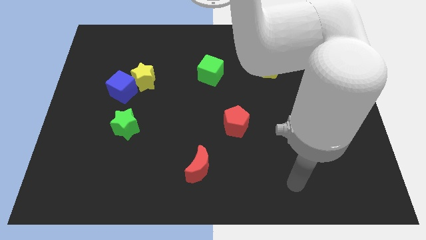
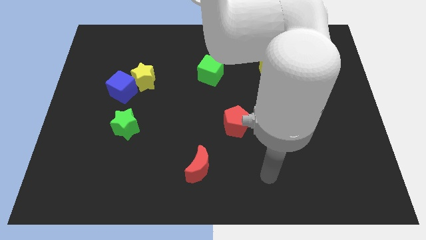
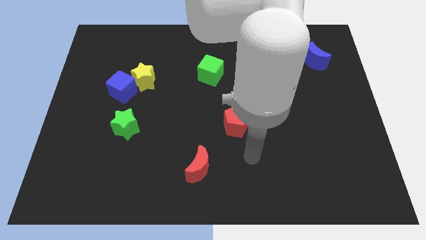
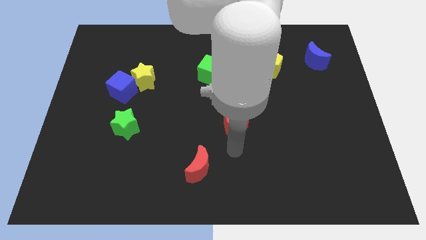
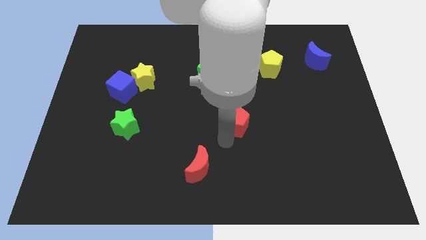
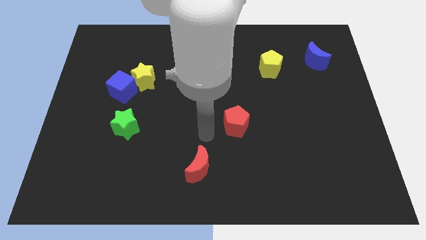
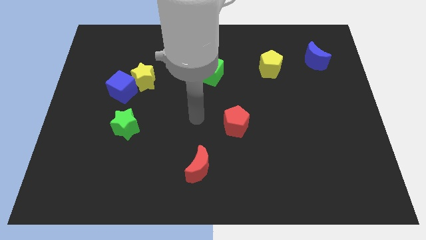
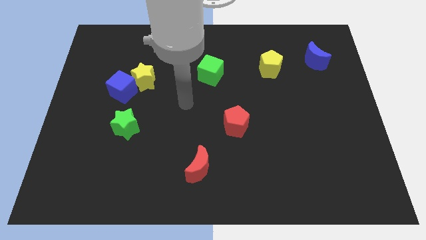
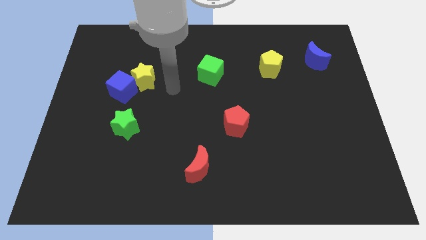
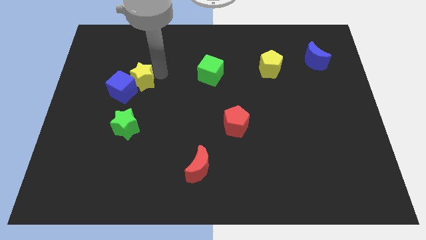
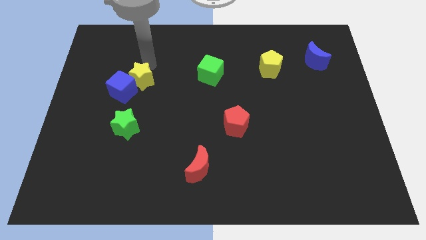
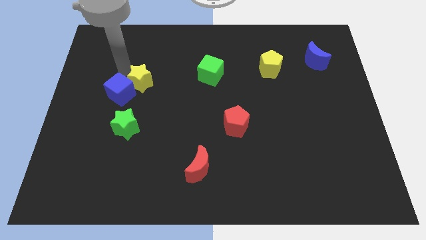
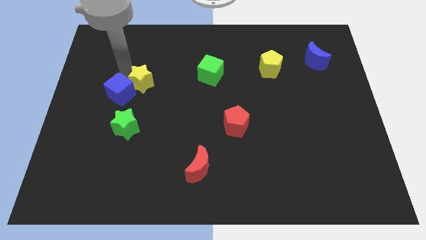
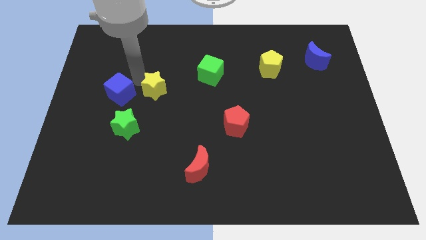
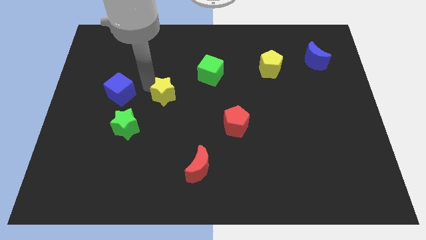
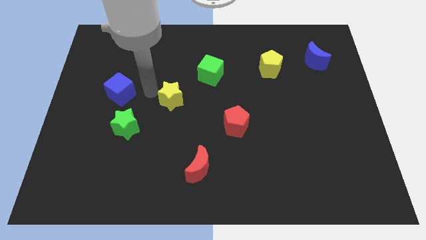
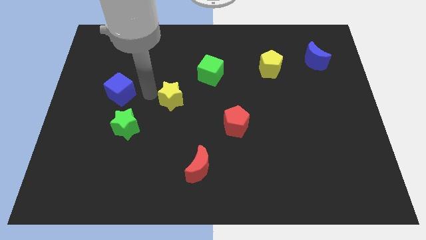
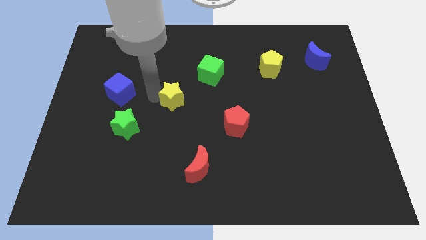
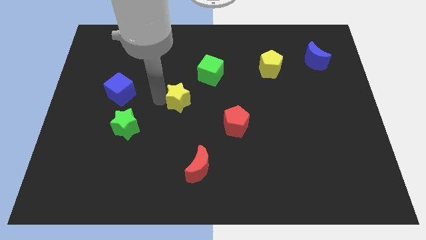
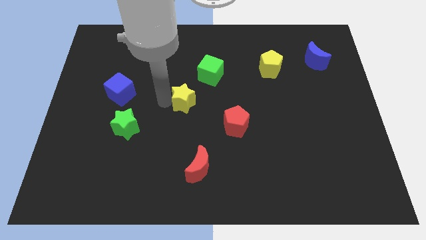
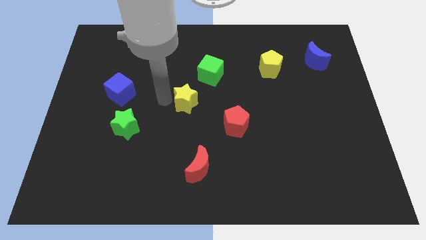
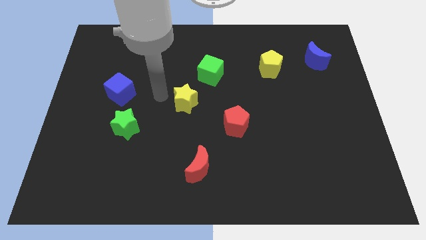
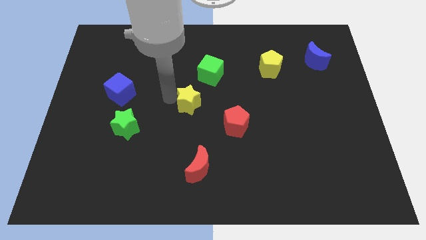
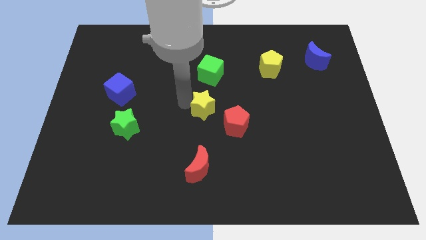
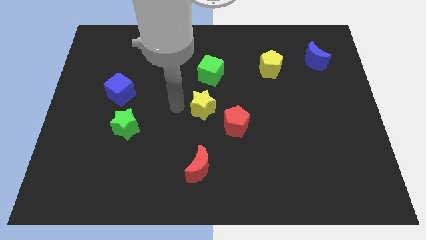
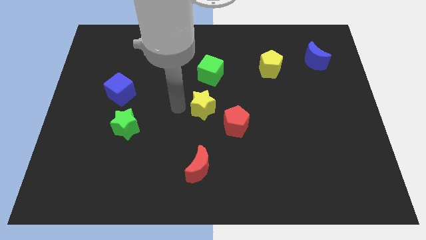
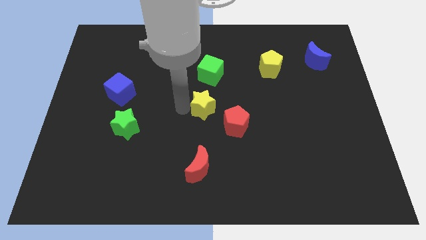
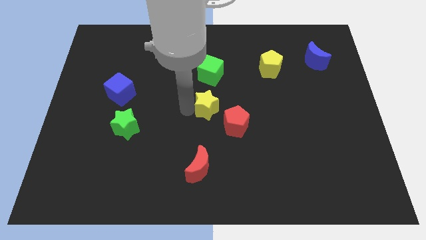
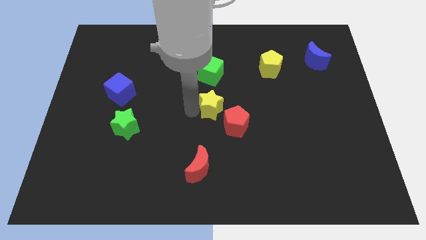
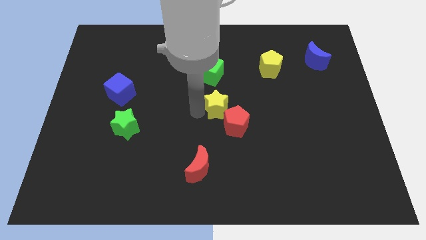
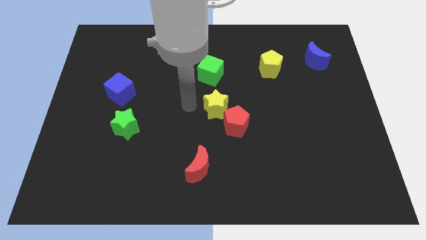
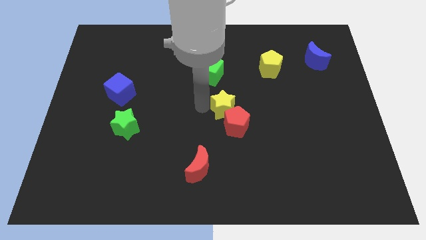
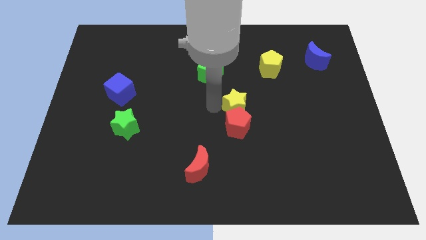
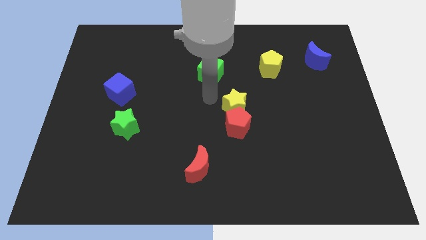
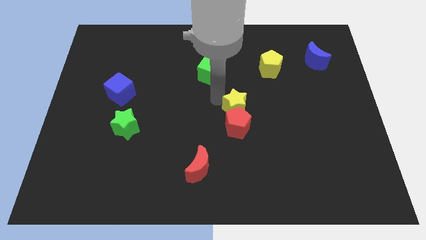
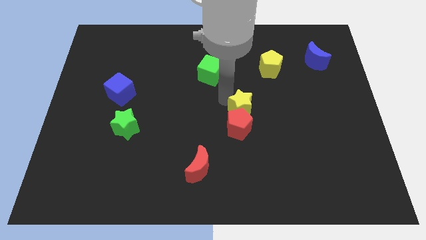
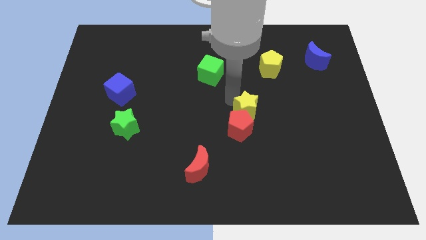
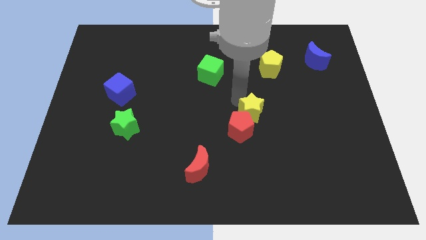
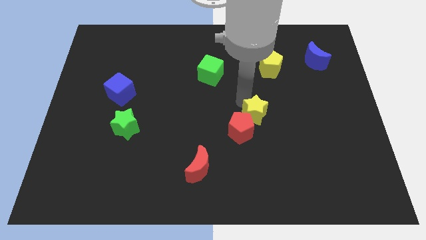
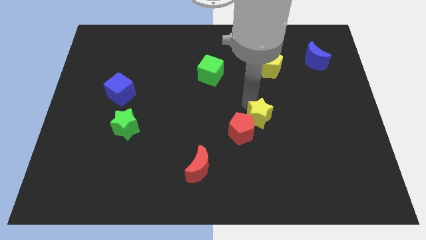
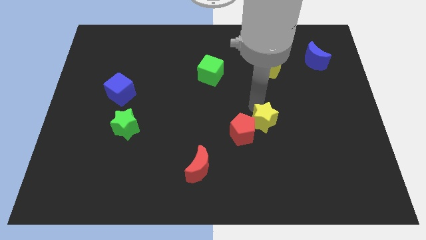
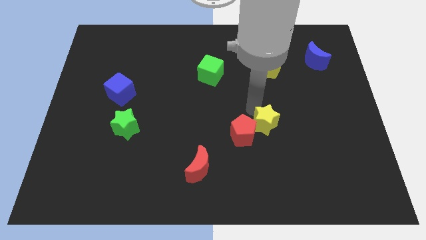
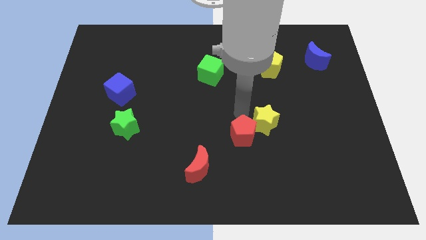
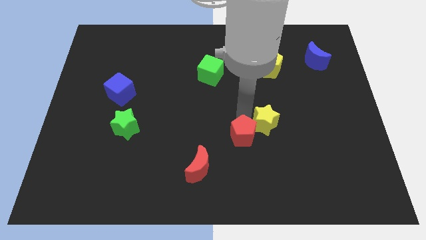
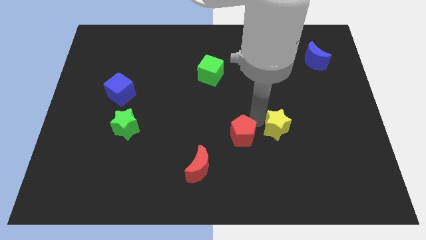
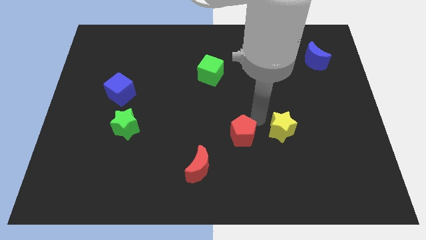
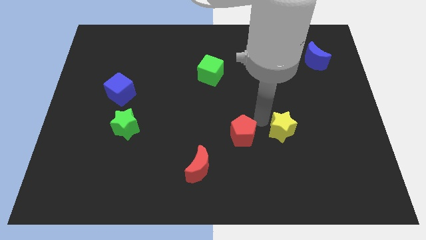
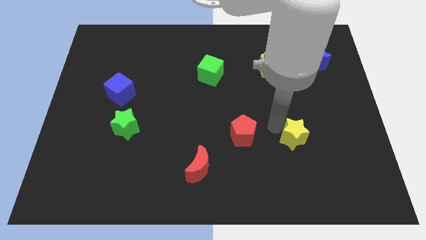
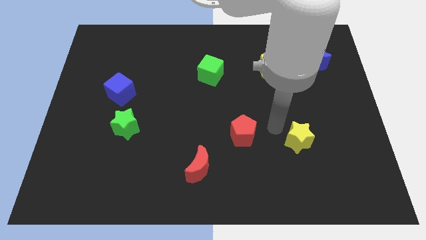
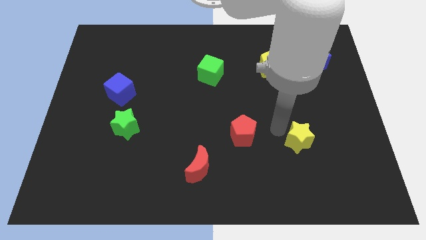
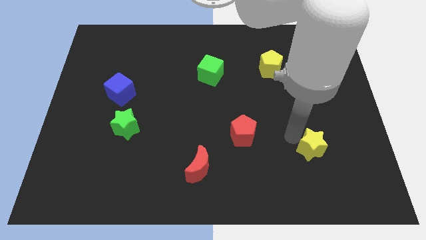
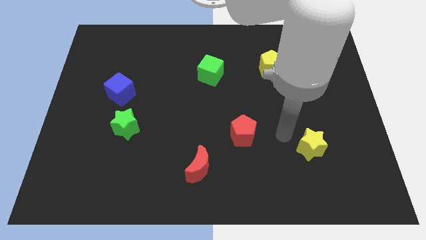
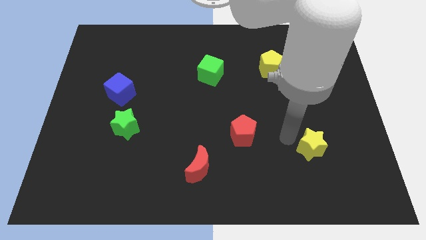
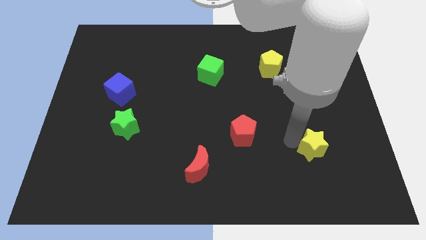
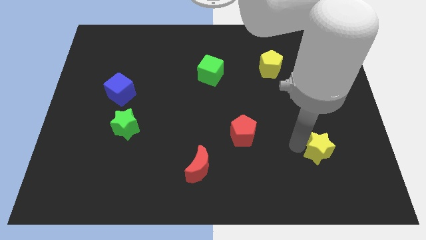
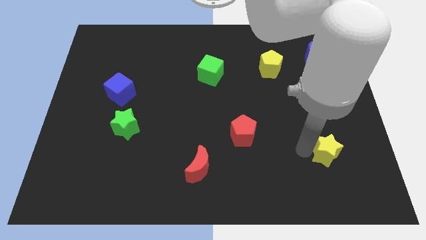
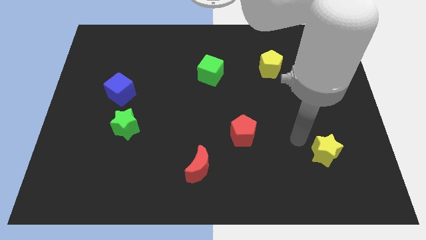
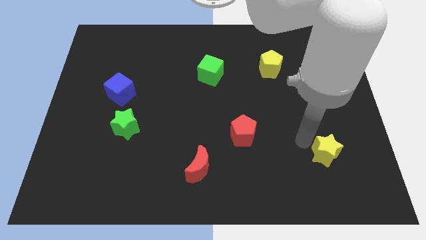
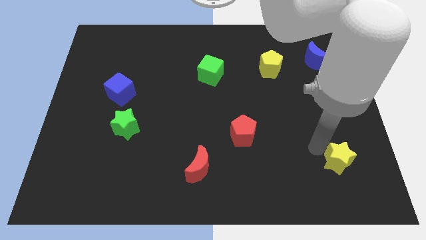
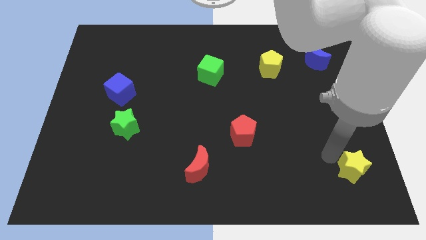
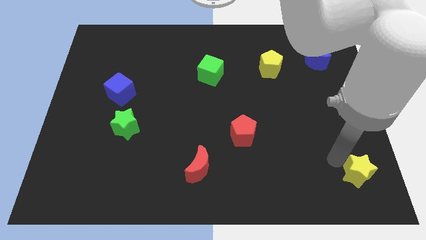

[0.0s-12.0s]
put the yellow star to the bottom right

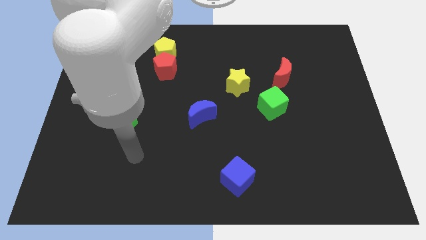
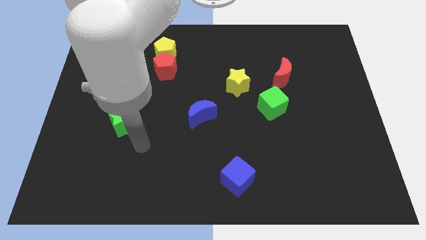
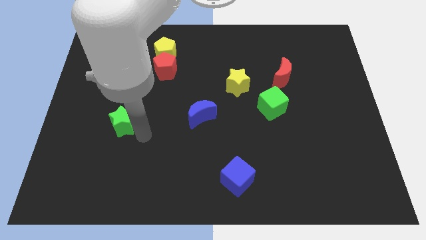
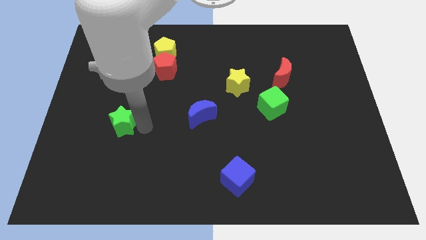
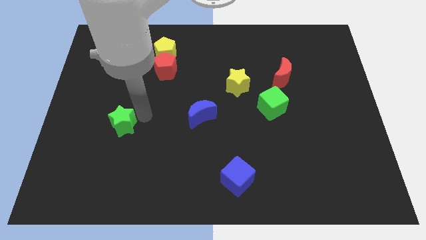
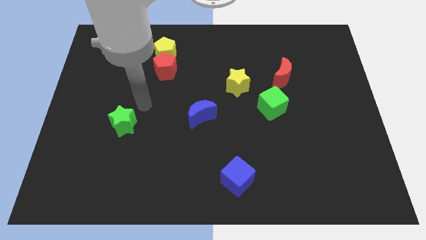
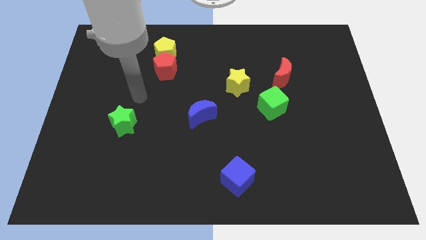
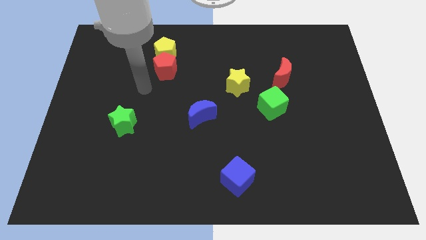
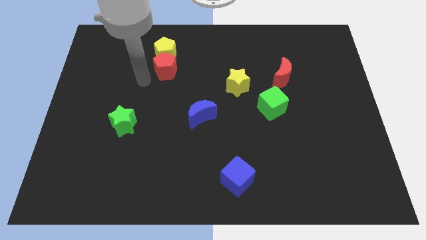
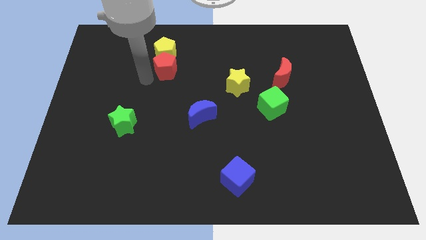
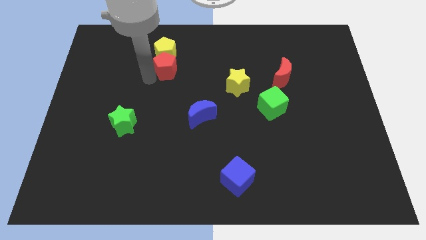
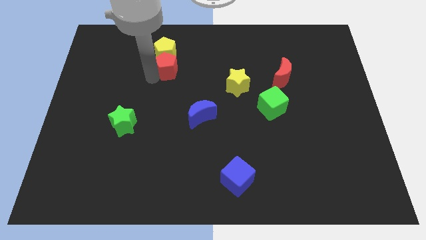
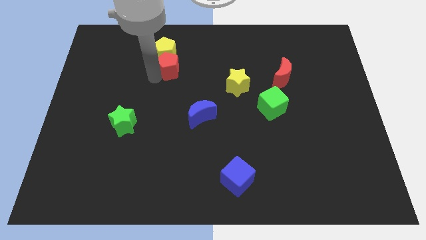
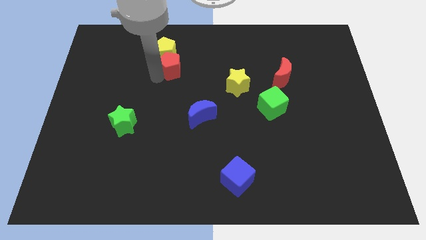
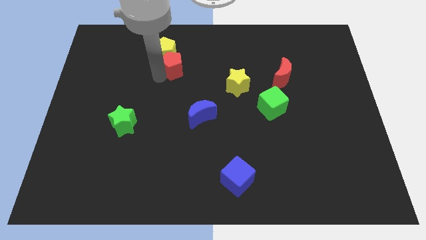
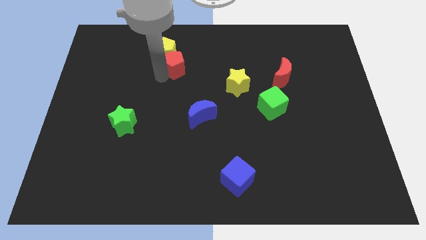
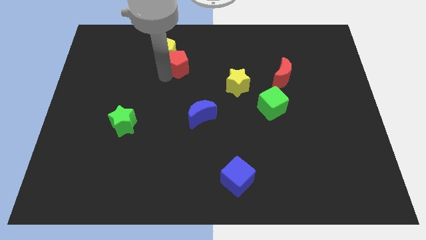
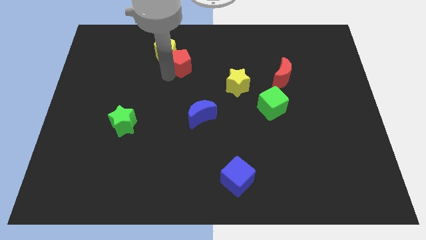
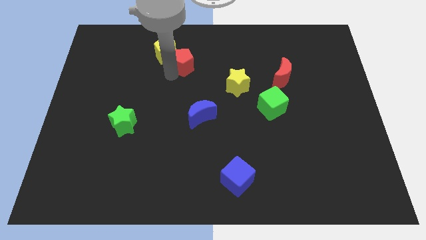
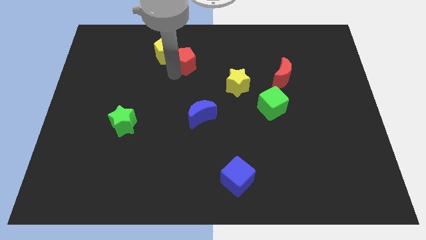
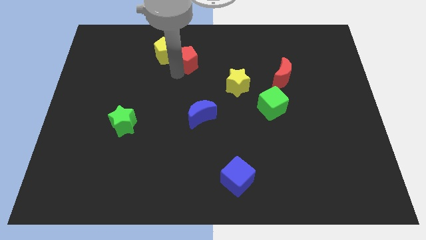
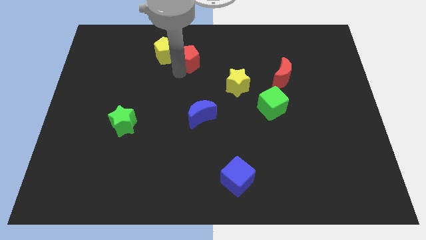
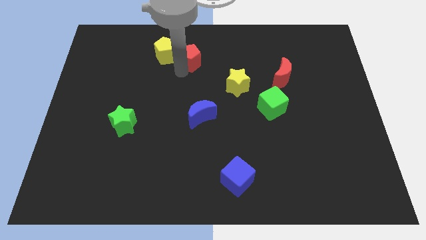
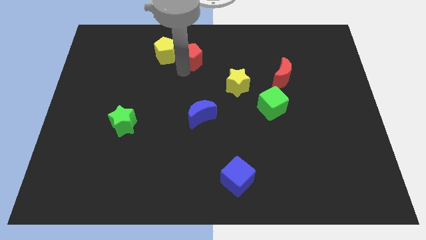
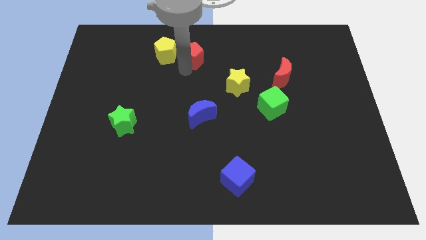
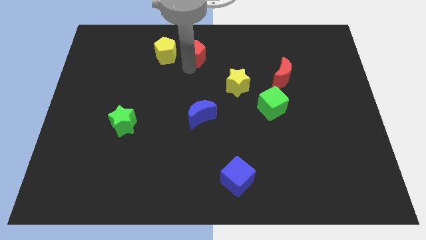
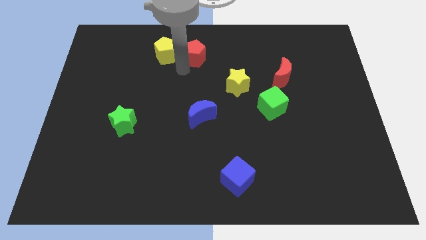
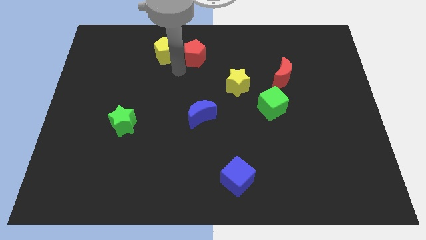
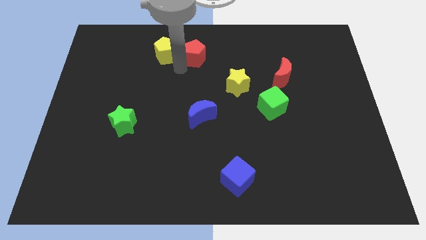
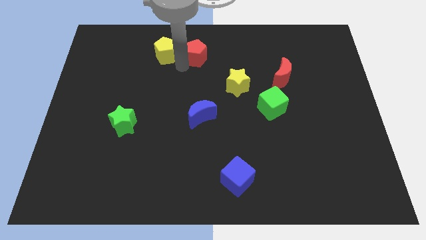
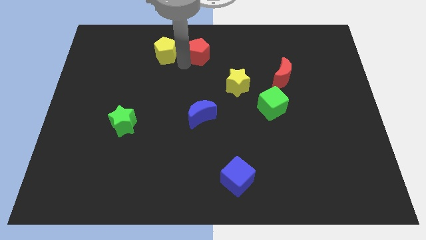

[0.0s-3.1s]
move the red pentagon to the towards your base
